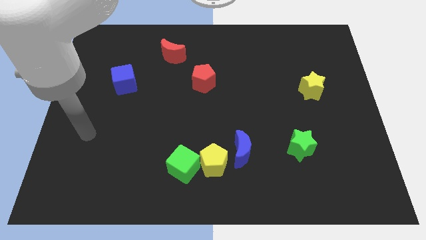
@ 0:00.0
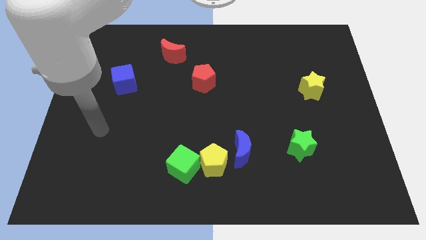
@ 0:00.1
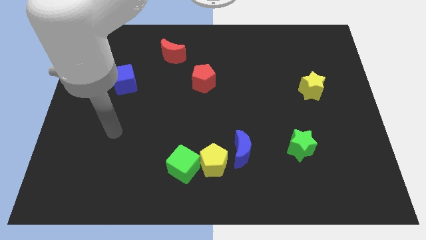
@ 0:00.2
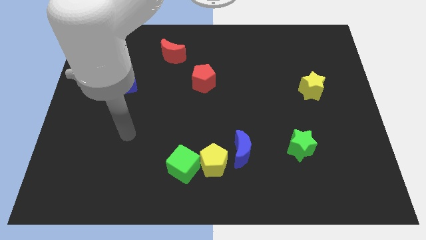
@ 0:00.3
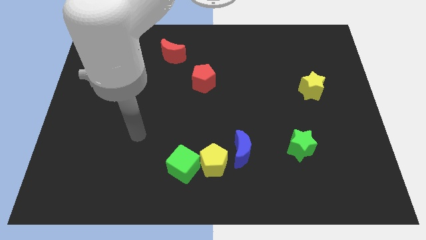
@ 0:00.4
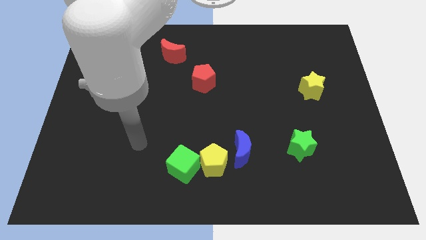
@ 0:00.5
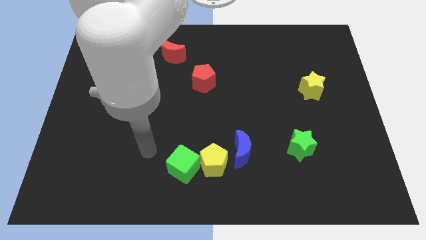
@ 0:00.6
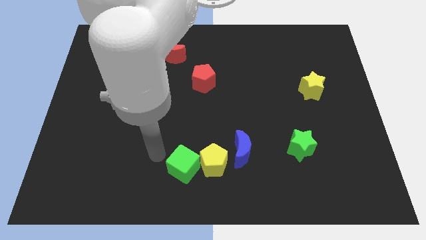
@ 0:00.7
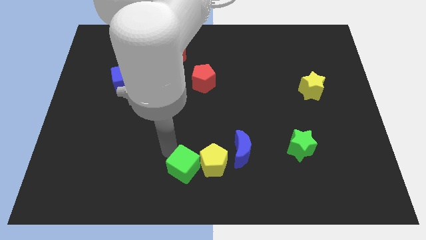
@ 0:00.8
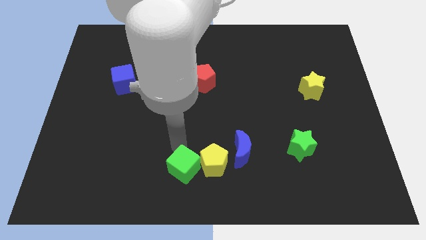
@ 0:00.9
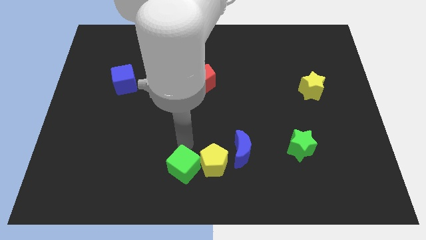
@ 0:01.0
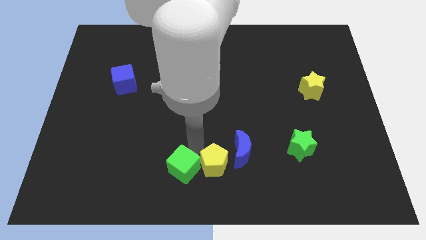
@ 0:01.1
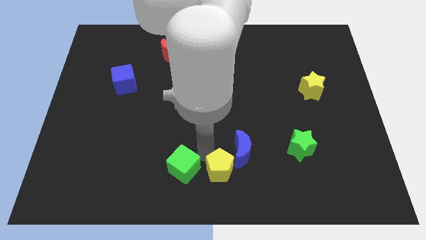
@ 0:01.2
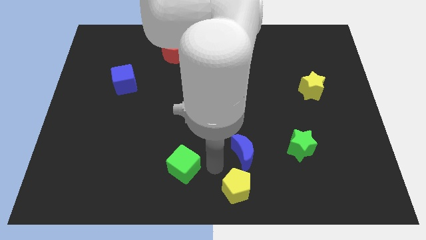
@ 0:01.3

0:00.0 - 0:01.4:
pull the green cube apart from the yellow pentagon

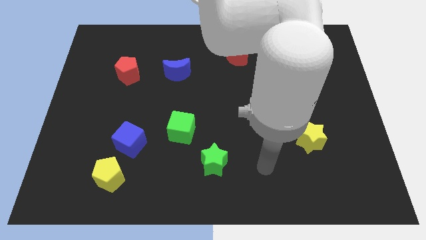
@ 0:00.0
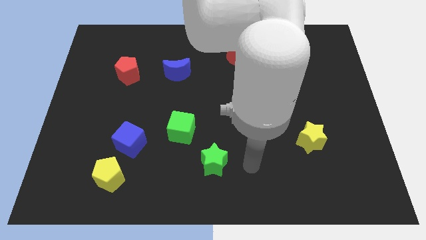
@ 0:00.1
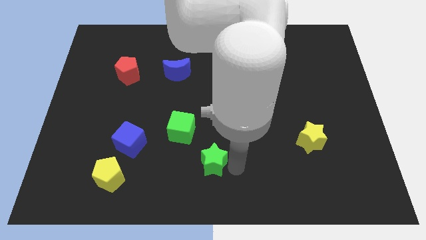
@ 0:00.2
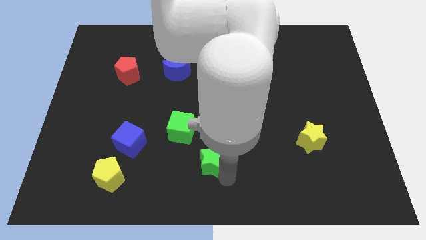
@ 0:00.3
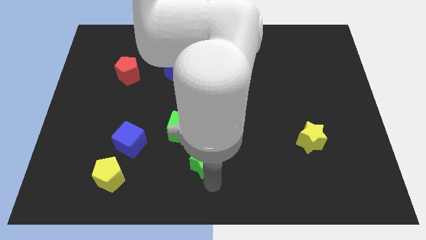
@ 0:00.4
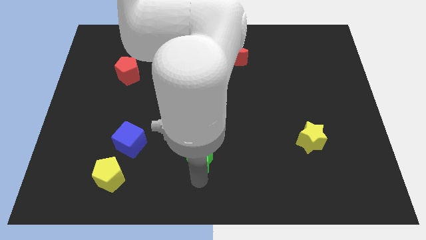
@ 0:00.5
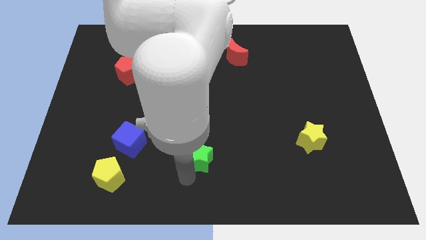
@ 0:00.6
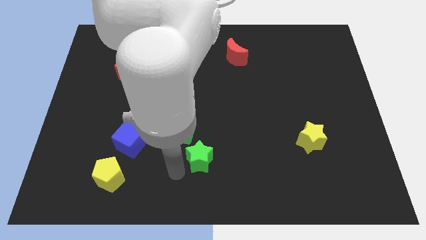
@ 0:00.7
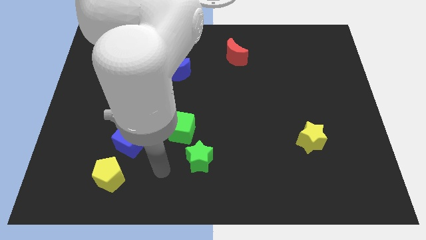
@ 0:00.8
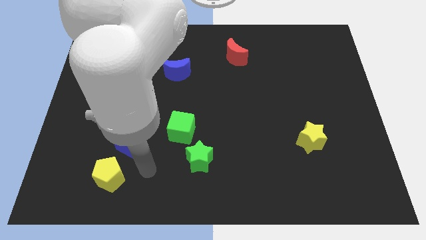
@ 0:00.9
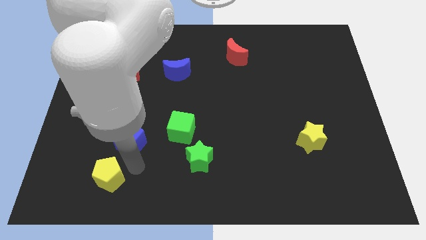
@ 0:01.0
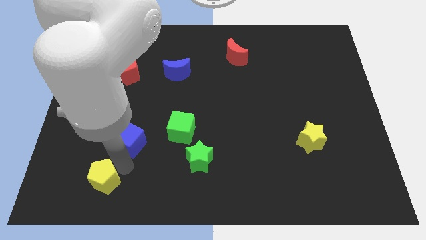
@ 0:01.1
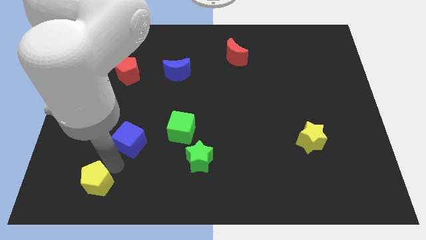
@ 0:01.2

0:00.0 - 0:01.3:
move the blue cube away from the yellow pentagon

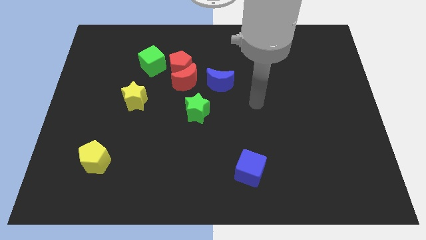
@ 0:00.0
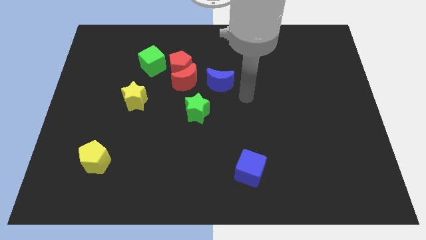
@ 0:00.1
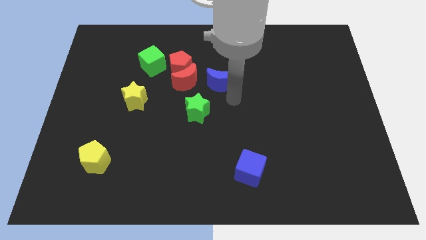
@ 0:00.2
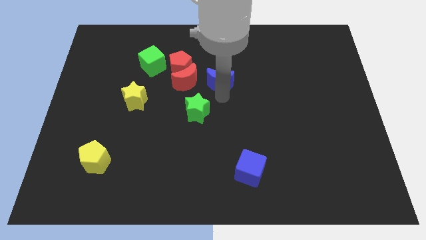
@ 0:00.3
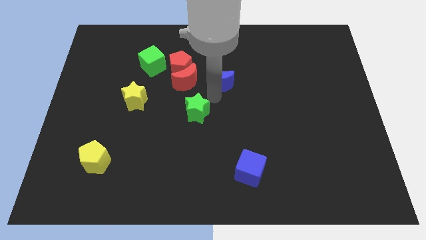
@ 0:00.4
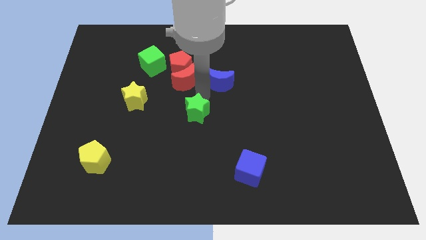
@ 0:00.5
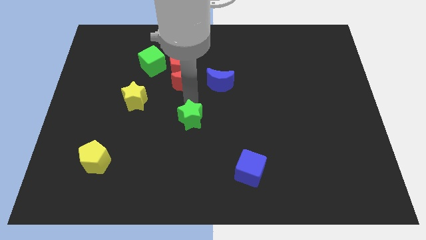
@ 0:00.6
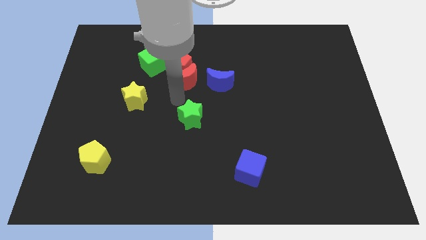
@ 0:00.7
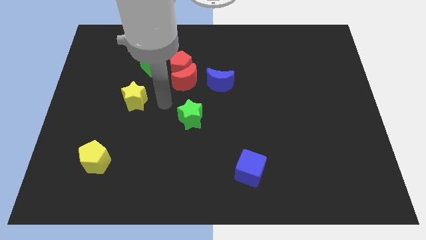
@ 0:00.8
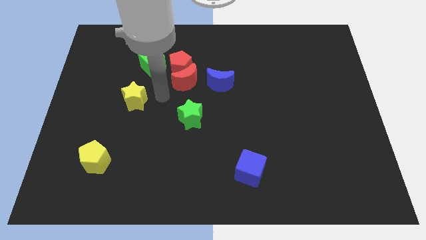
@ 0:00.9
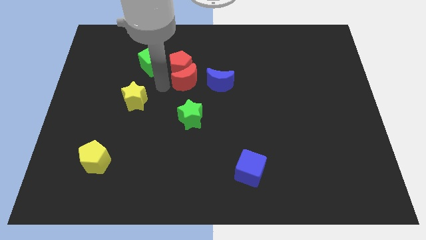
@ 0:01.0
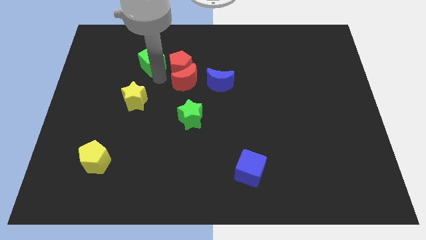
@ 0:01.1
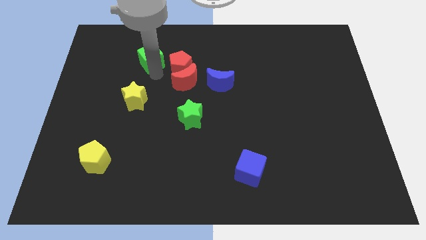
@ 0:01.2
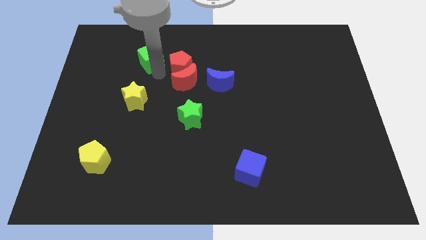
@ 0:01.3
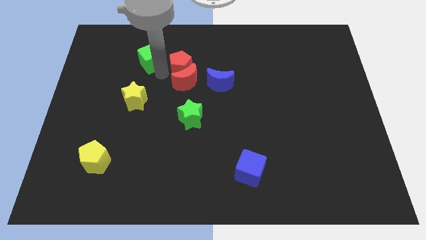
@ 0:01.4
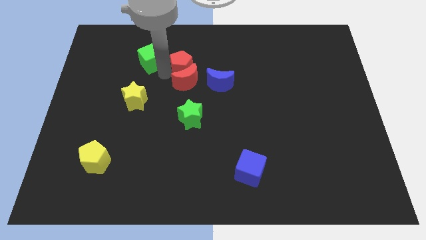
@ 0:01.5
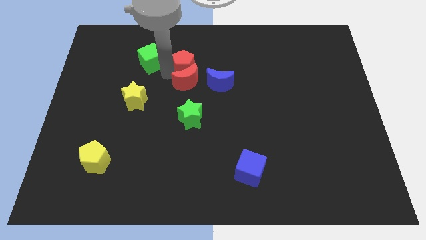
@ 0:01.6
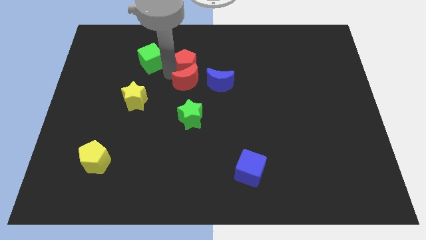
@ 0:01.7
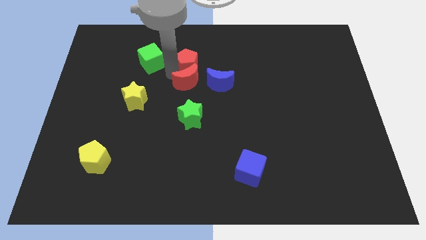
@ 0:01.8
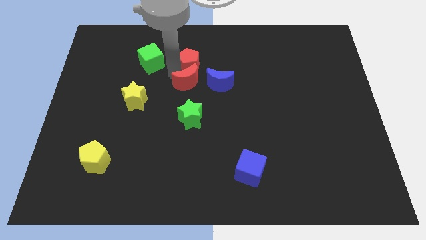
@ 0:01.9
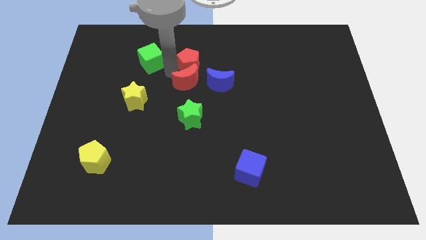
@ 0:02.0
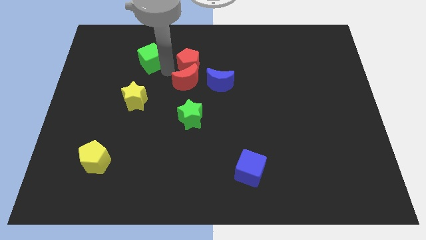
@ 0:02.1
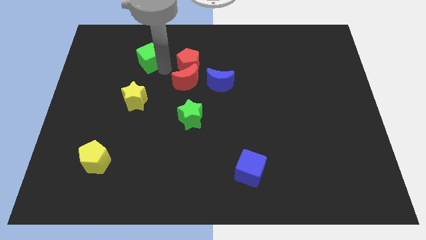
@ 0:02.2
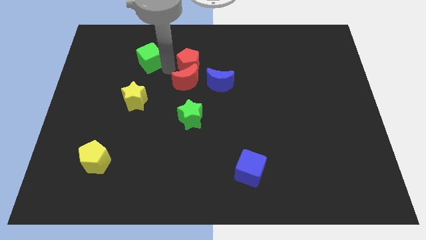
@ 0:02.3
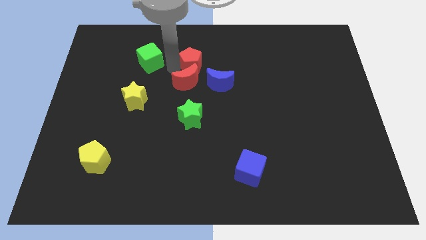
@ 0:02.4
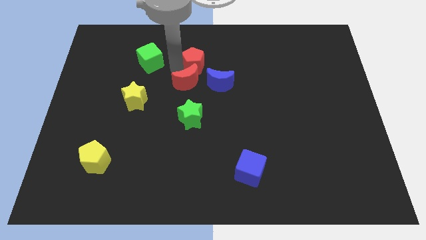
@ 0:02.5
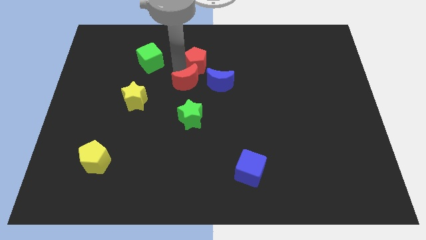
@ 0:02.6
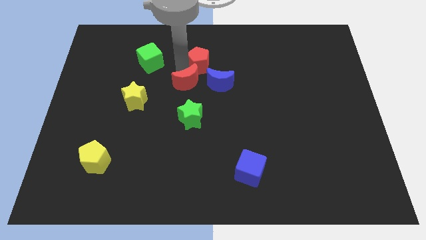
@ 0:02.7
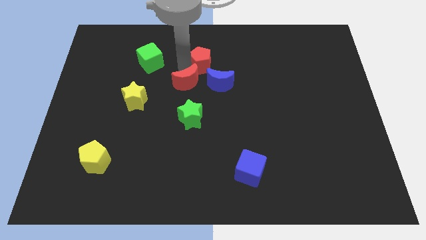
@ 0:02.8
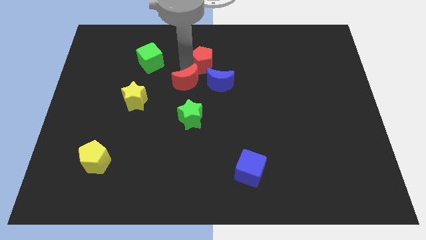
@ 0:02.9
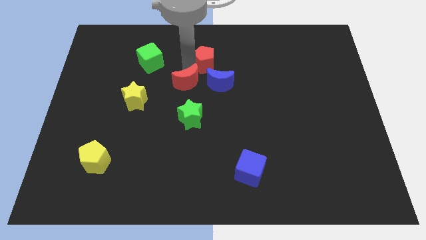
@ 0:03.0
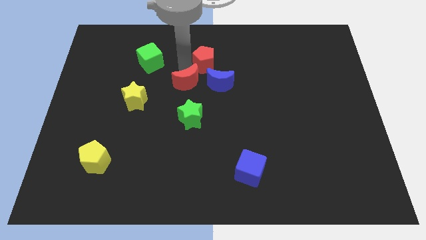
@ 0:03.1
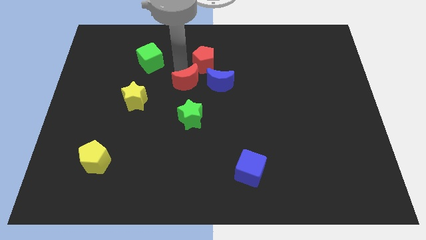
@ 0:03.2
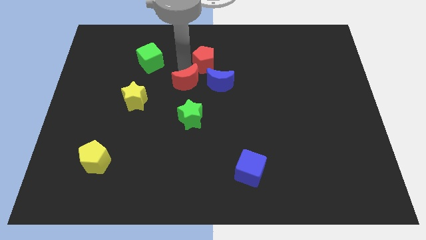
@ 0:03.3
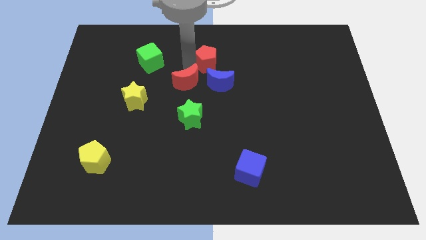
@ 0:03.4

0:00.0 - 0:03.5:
pull the red pentagon apart from the red moon and green cube

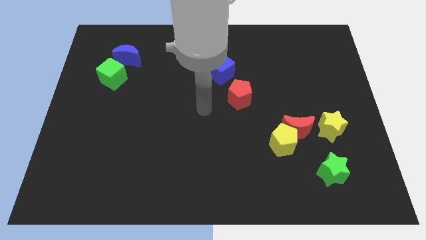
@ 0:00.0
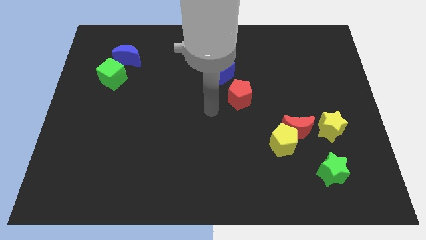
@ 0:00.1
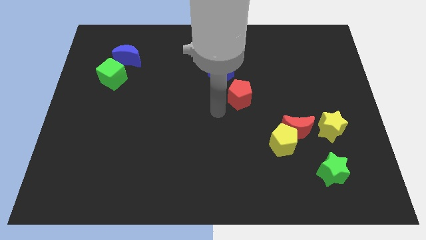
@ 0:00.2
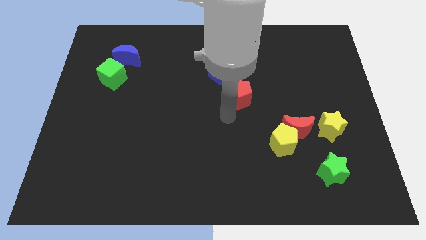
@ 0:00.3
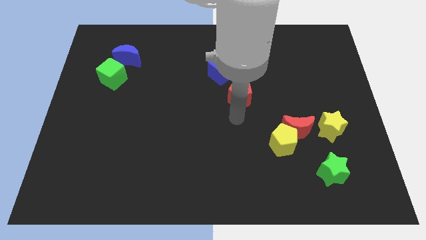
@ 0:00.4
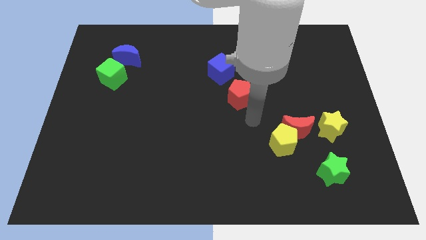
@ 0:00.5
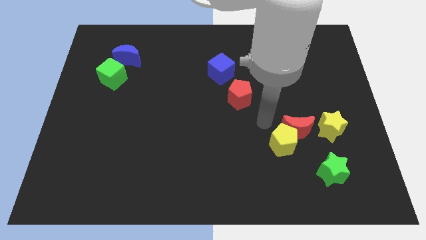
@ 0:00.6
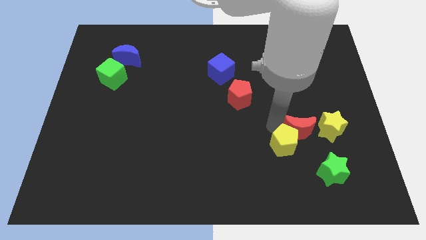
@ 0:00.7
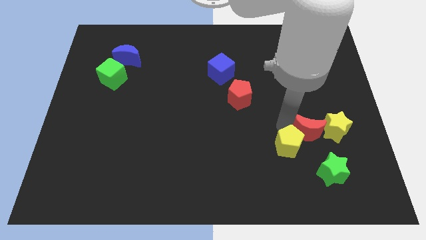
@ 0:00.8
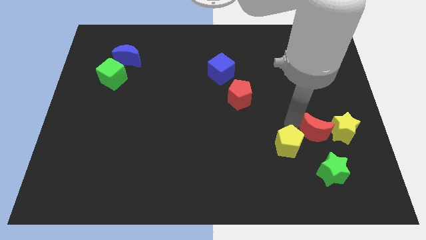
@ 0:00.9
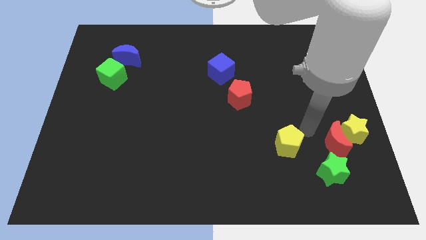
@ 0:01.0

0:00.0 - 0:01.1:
move the yellow pentagon away from the red moon

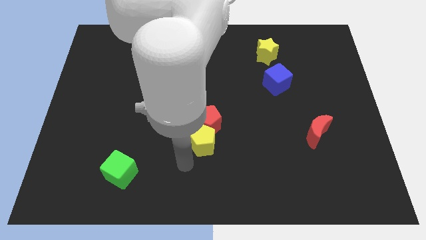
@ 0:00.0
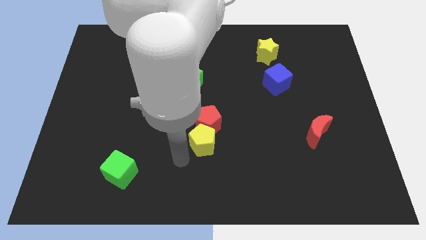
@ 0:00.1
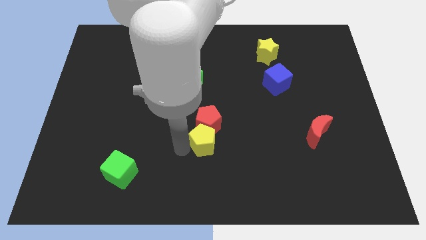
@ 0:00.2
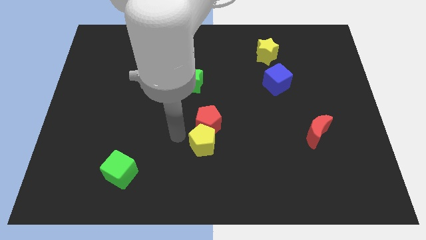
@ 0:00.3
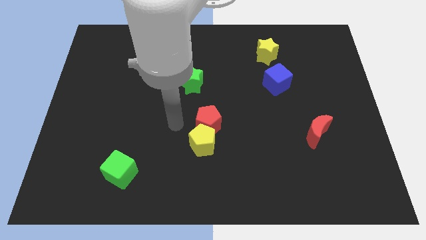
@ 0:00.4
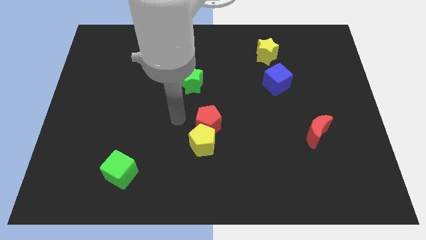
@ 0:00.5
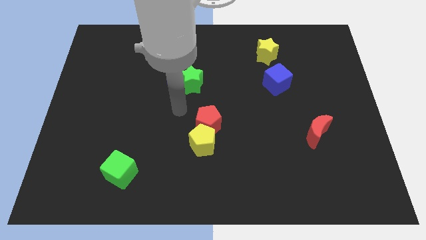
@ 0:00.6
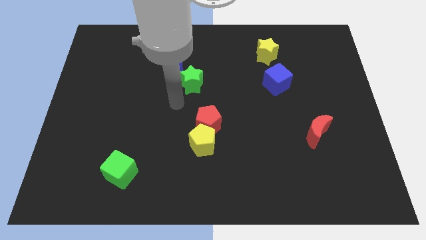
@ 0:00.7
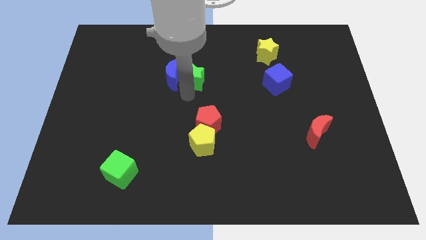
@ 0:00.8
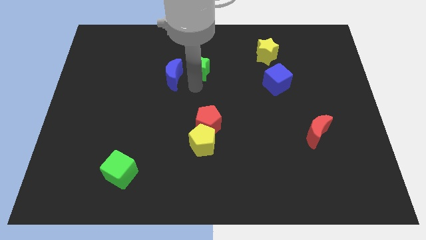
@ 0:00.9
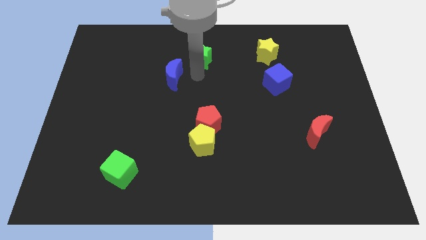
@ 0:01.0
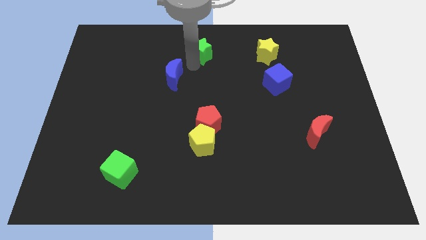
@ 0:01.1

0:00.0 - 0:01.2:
pull the blue moon apart from the green star

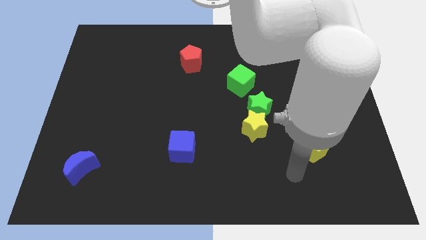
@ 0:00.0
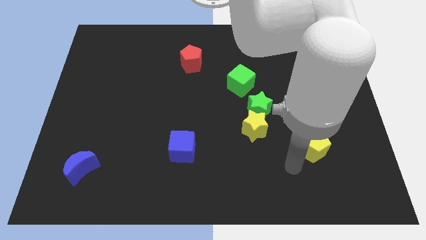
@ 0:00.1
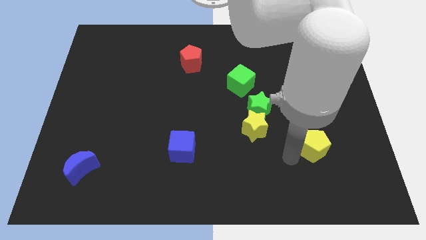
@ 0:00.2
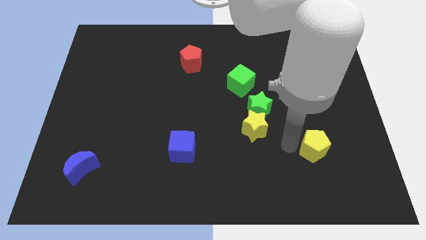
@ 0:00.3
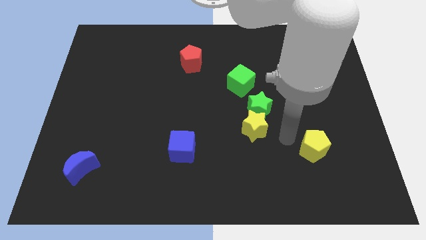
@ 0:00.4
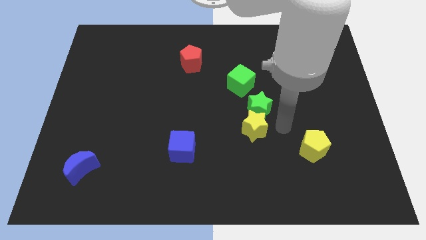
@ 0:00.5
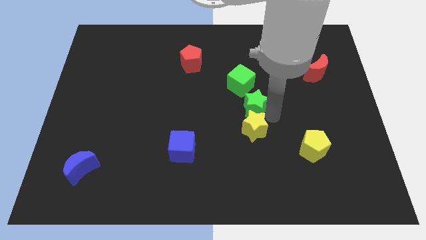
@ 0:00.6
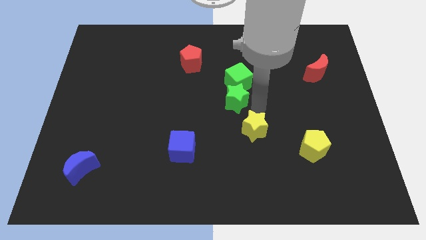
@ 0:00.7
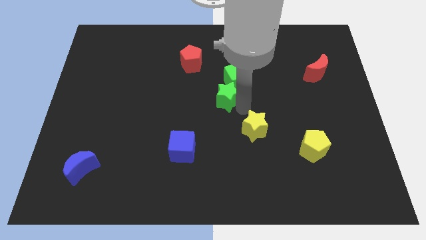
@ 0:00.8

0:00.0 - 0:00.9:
separate the yellow star from the green star
